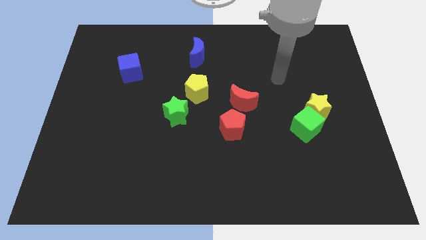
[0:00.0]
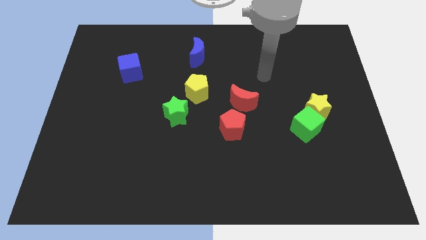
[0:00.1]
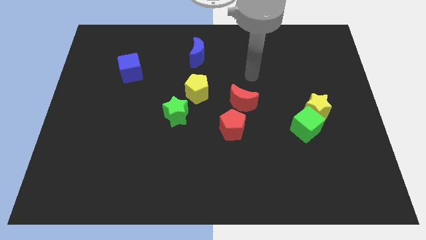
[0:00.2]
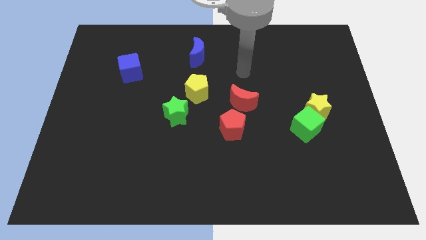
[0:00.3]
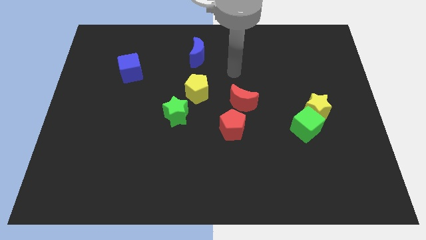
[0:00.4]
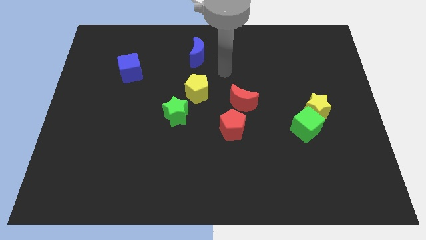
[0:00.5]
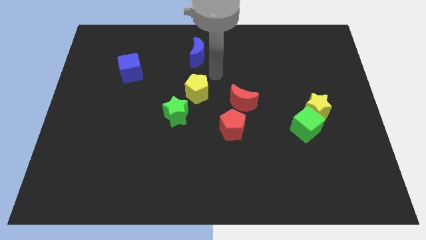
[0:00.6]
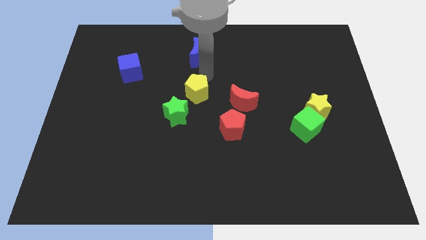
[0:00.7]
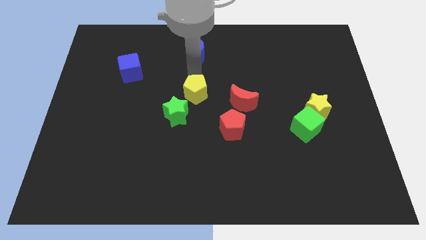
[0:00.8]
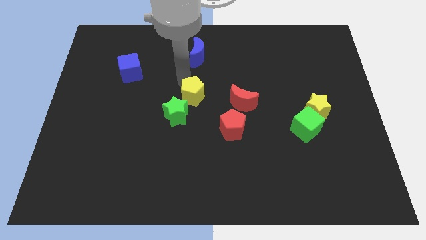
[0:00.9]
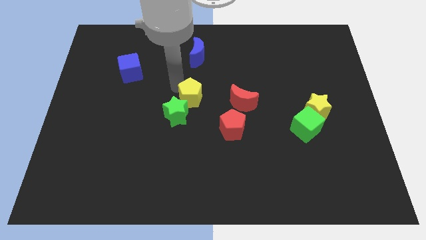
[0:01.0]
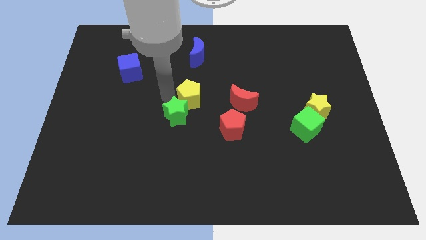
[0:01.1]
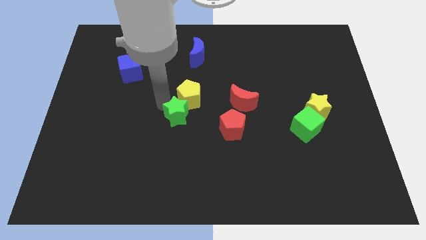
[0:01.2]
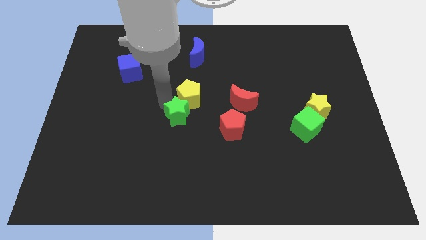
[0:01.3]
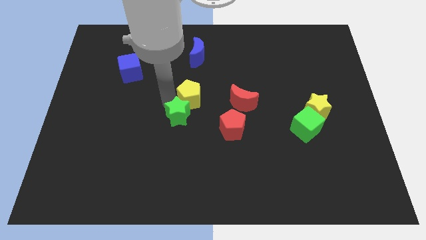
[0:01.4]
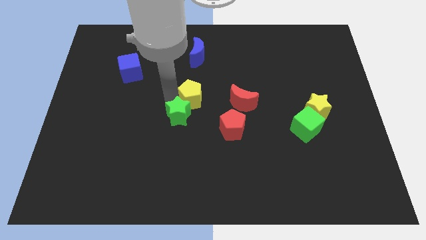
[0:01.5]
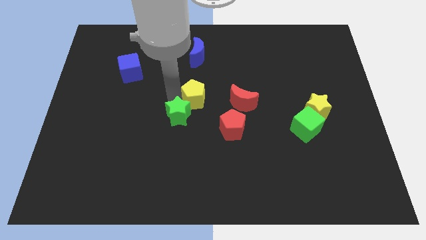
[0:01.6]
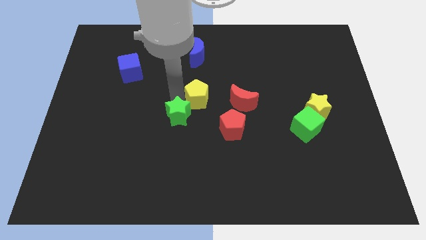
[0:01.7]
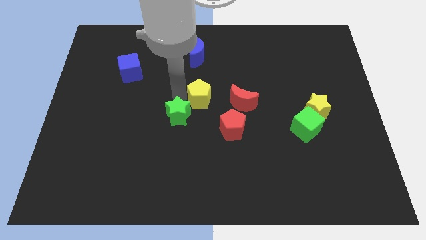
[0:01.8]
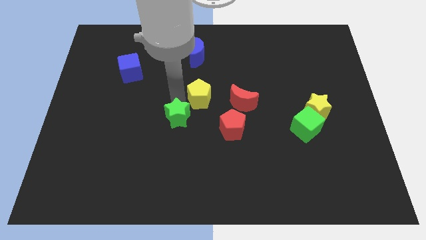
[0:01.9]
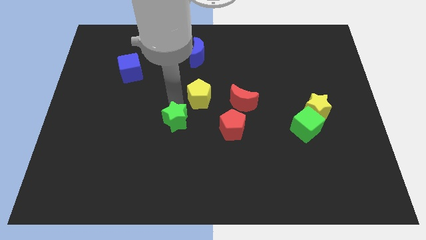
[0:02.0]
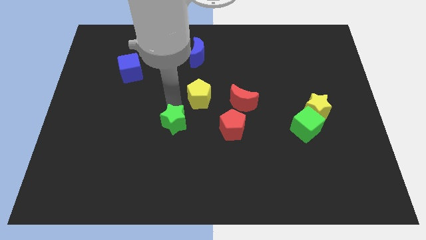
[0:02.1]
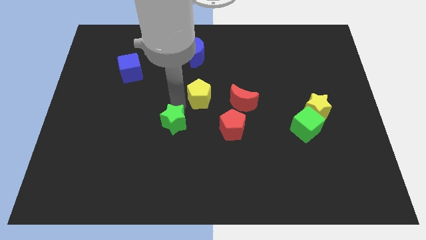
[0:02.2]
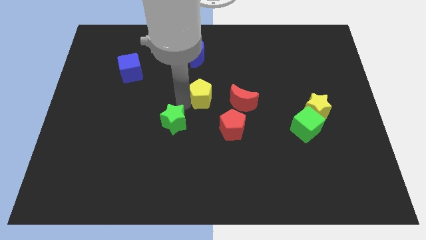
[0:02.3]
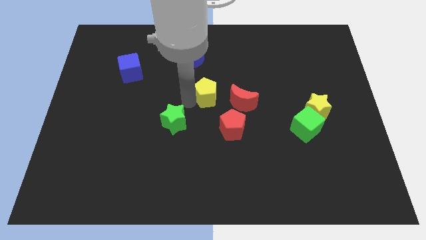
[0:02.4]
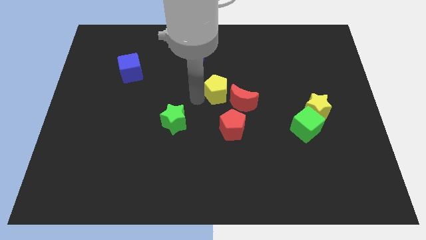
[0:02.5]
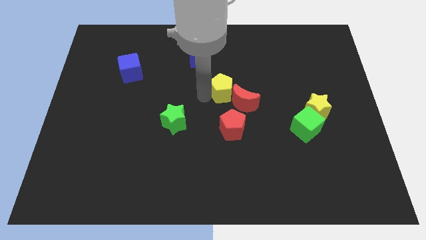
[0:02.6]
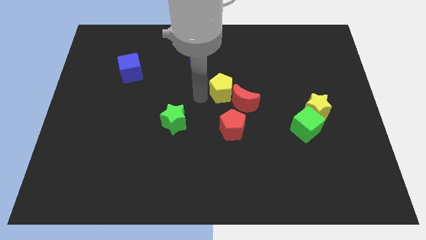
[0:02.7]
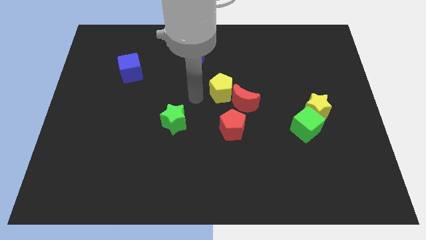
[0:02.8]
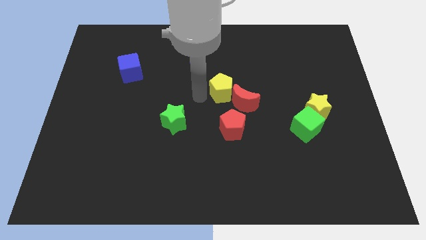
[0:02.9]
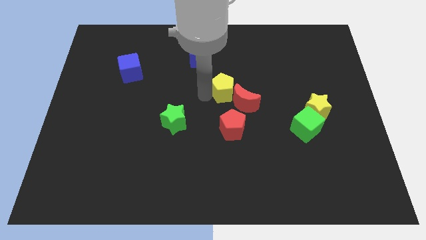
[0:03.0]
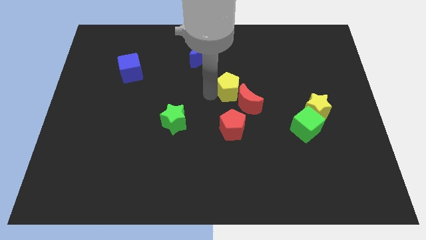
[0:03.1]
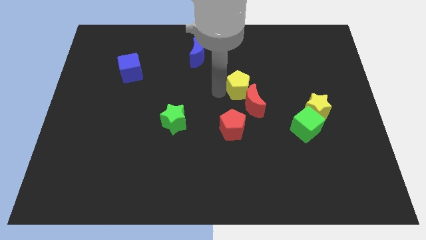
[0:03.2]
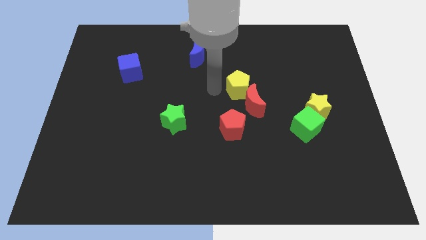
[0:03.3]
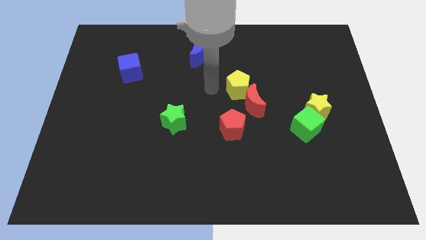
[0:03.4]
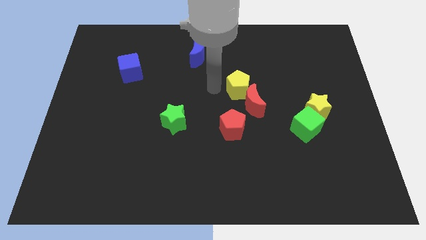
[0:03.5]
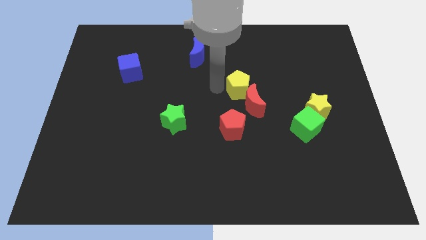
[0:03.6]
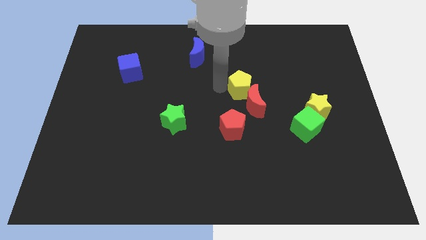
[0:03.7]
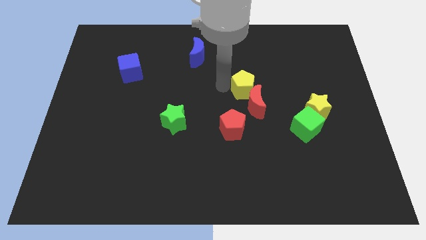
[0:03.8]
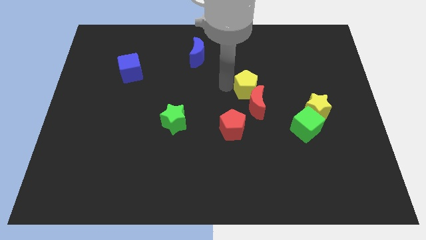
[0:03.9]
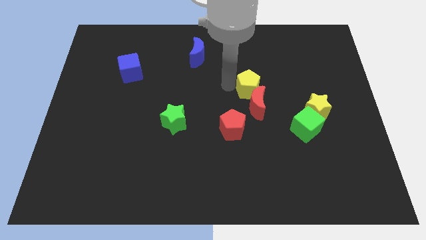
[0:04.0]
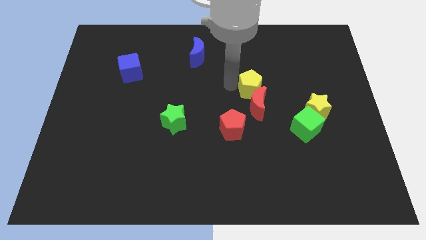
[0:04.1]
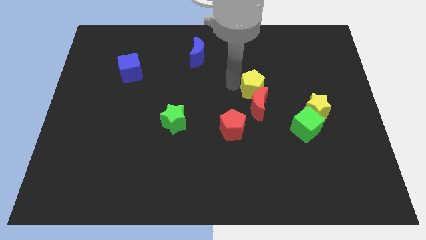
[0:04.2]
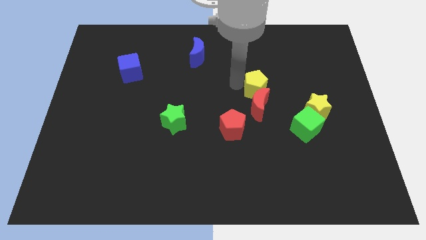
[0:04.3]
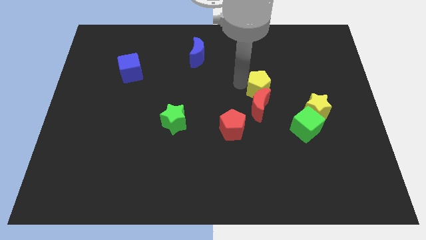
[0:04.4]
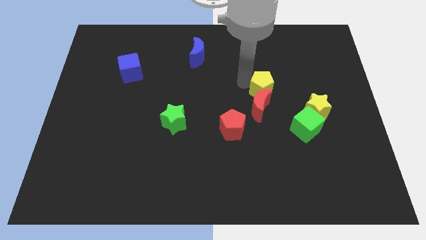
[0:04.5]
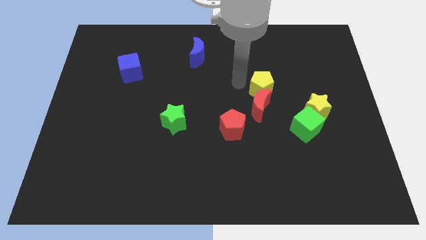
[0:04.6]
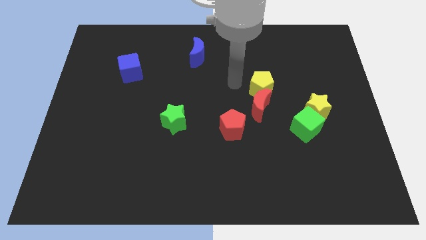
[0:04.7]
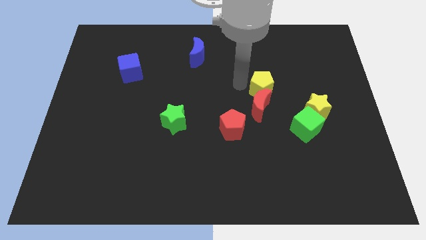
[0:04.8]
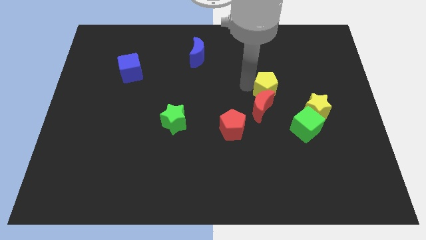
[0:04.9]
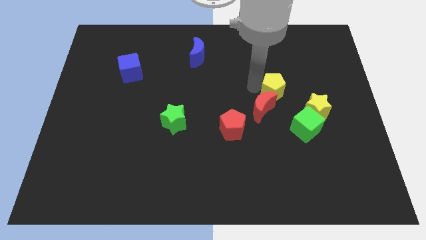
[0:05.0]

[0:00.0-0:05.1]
move the yellow pentagon to the top left of the yellow star

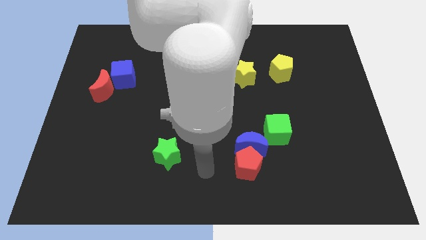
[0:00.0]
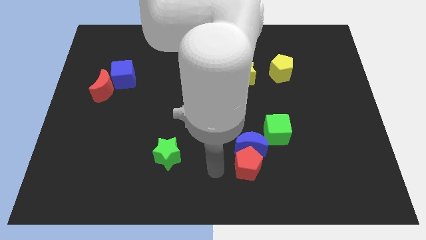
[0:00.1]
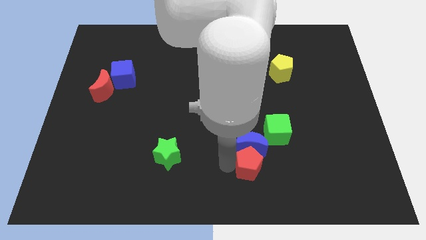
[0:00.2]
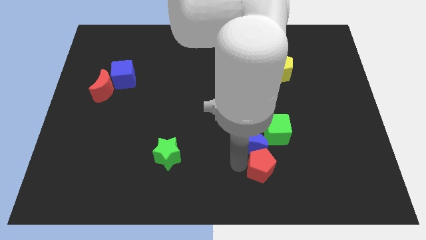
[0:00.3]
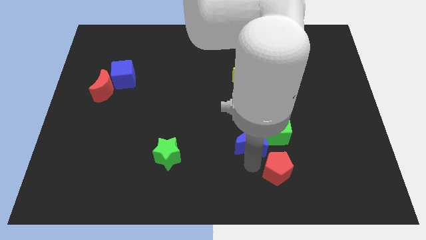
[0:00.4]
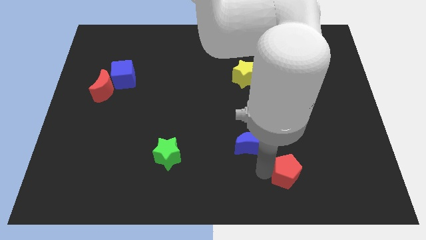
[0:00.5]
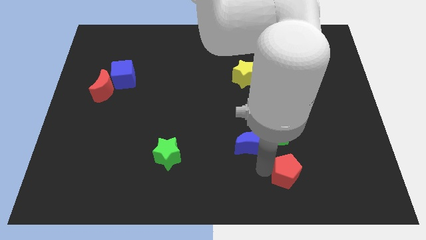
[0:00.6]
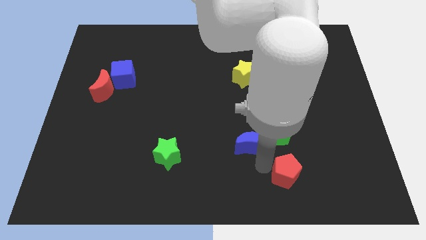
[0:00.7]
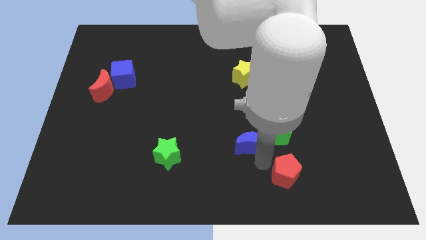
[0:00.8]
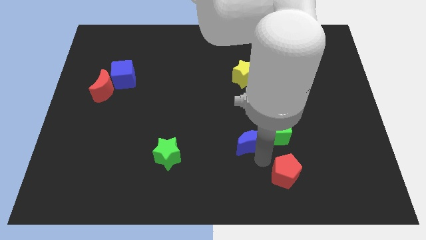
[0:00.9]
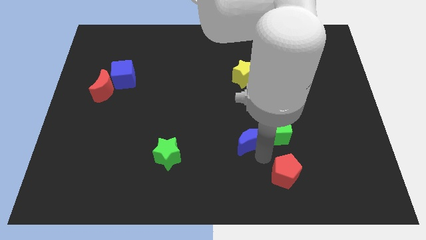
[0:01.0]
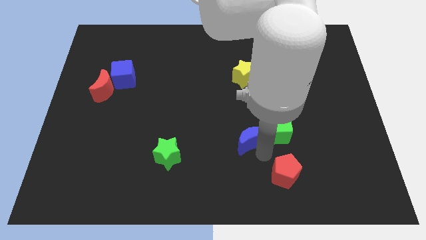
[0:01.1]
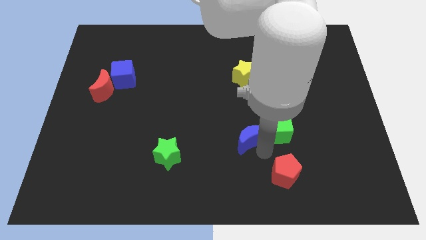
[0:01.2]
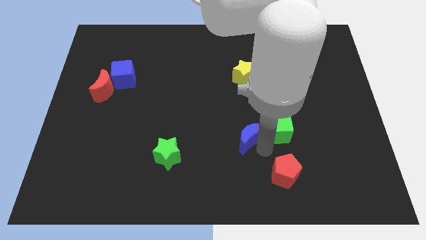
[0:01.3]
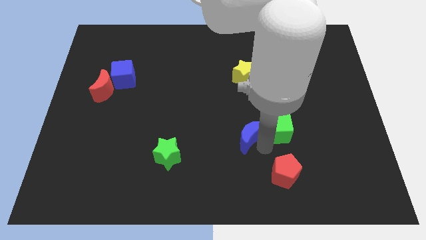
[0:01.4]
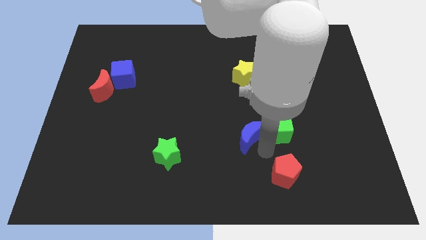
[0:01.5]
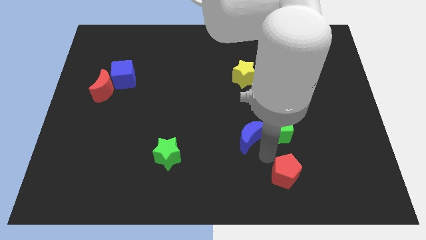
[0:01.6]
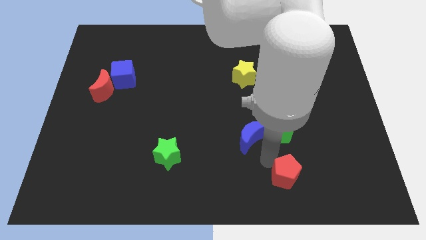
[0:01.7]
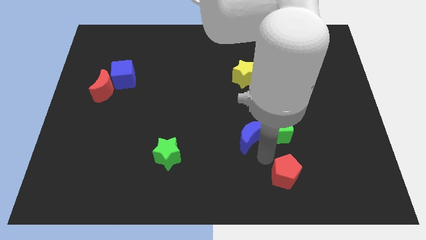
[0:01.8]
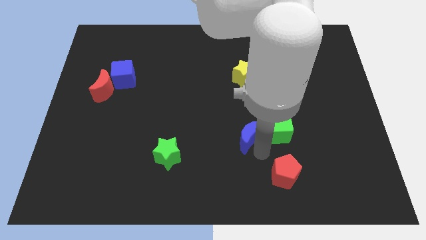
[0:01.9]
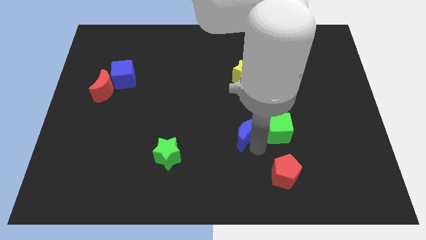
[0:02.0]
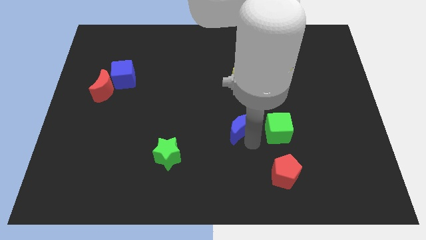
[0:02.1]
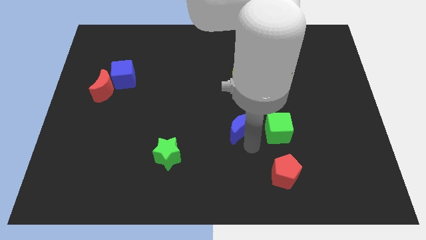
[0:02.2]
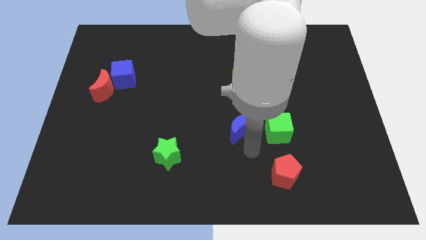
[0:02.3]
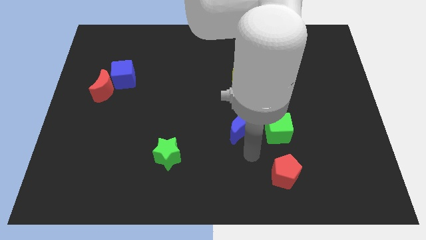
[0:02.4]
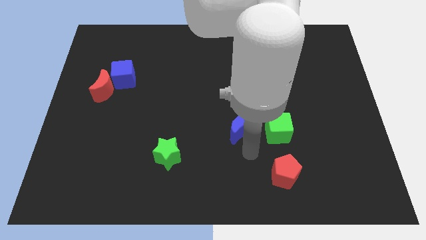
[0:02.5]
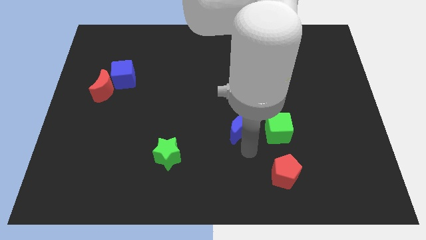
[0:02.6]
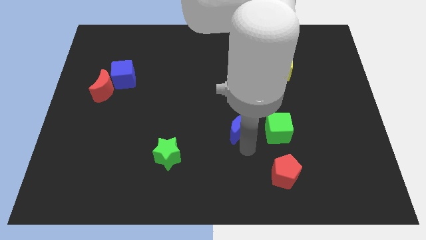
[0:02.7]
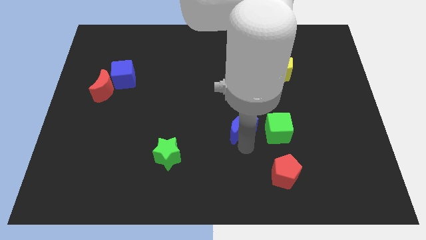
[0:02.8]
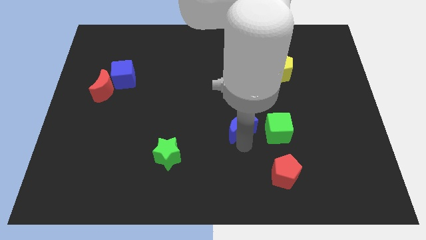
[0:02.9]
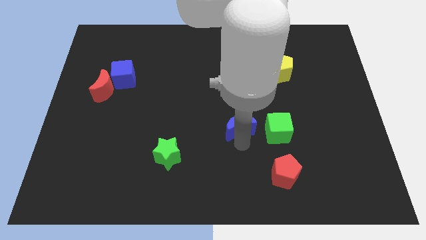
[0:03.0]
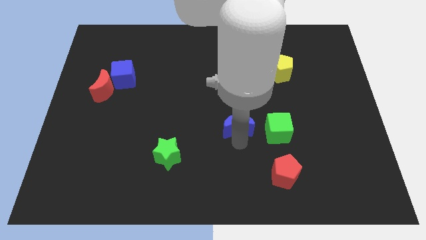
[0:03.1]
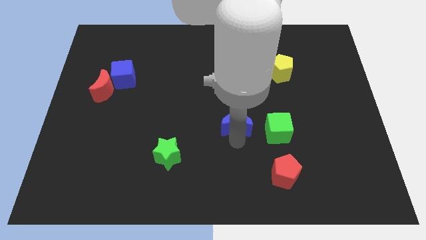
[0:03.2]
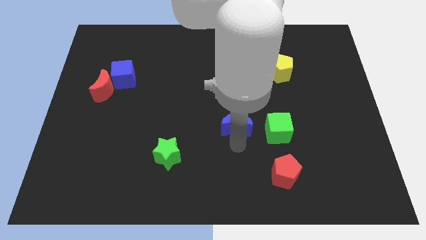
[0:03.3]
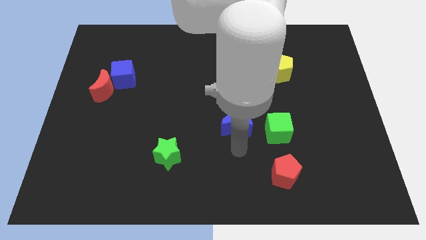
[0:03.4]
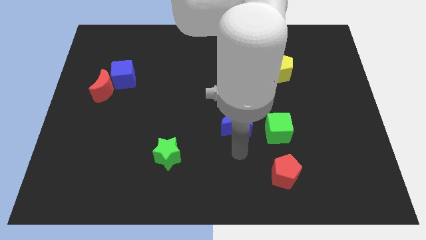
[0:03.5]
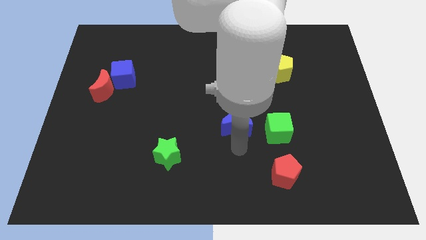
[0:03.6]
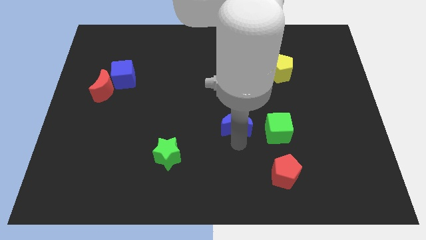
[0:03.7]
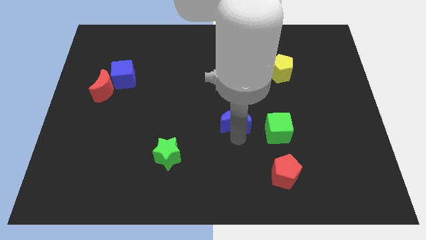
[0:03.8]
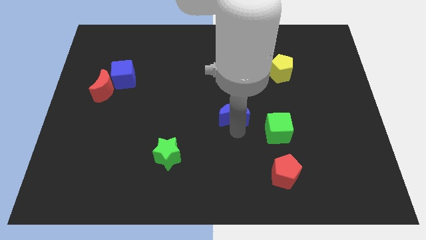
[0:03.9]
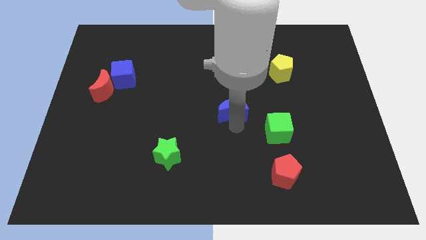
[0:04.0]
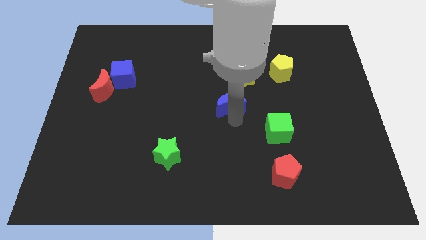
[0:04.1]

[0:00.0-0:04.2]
push the blue moon diagonally down and to the left of the yellow star
